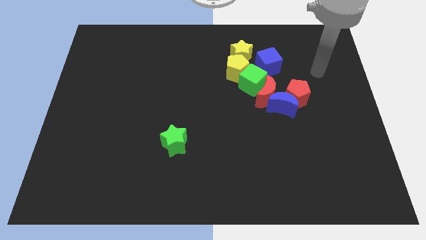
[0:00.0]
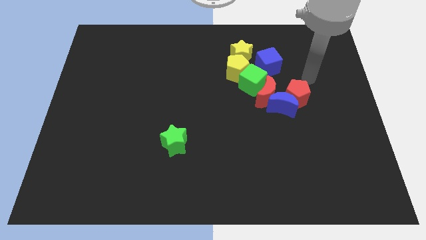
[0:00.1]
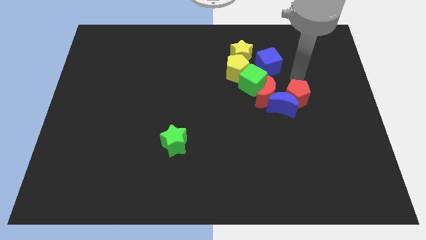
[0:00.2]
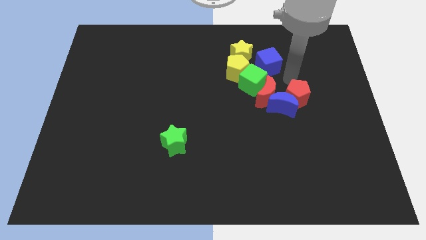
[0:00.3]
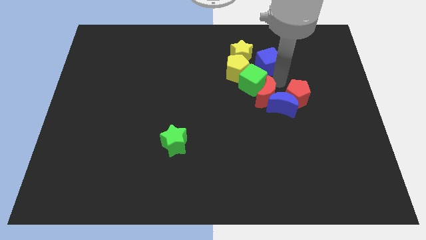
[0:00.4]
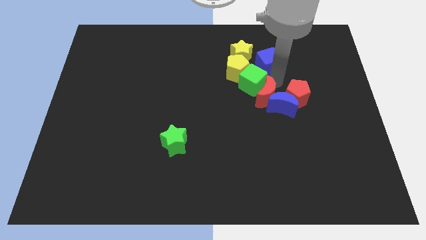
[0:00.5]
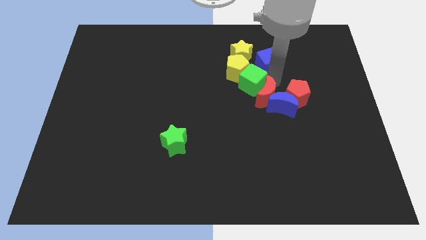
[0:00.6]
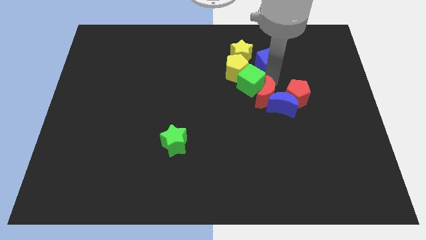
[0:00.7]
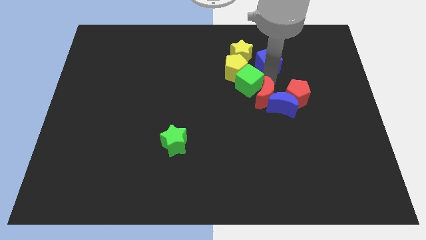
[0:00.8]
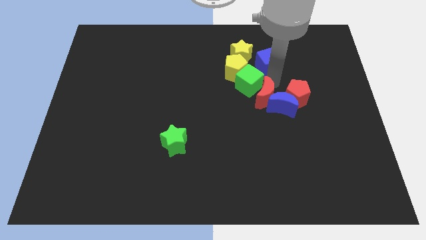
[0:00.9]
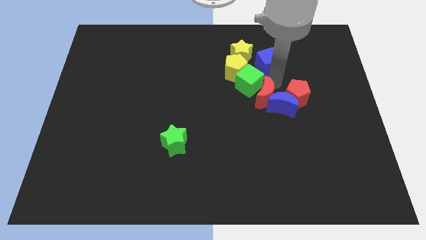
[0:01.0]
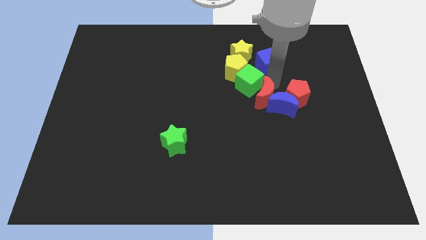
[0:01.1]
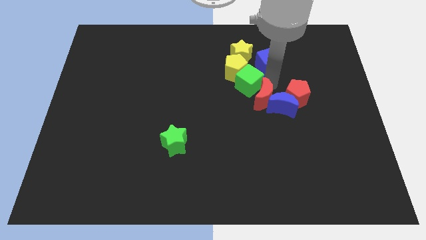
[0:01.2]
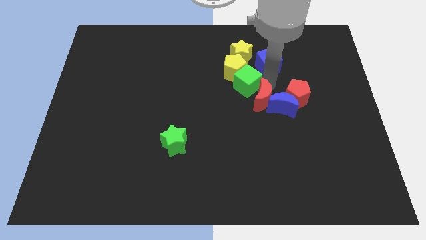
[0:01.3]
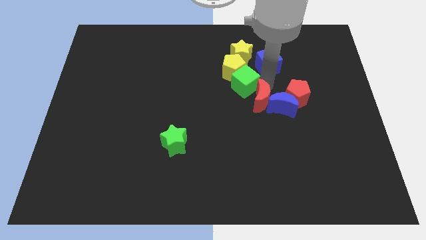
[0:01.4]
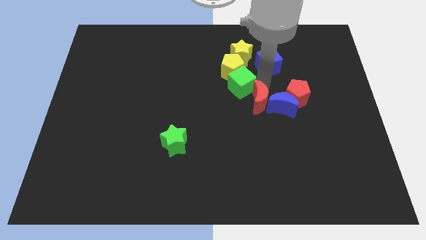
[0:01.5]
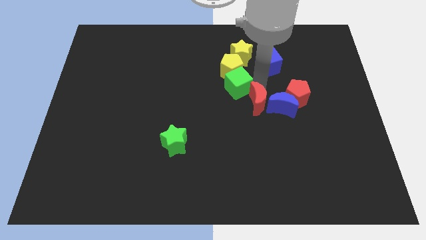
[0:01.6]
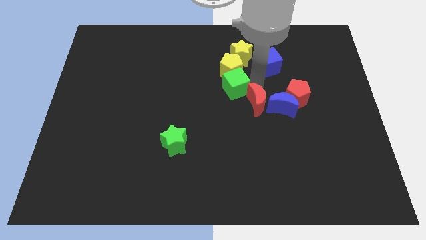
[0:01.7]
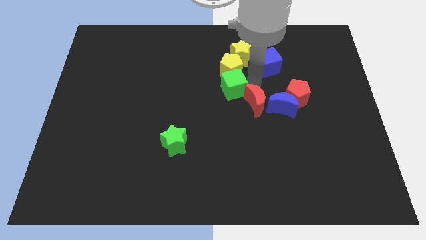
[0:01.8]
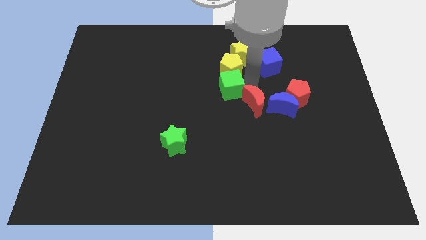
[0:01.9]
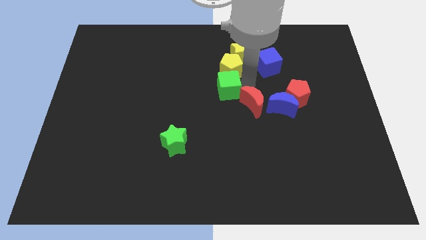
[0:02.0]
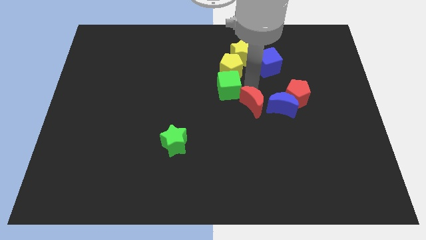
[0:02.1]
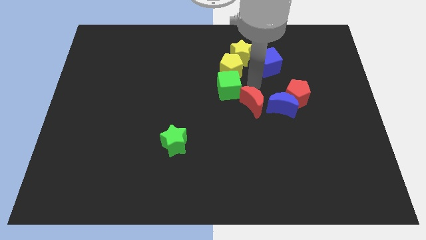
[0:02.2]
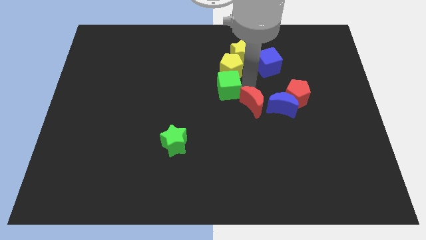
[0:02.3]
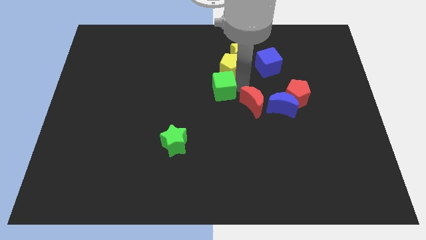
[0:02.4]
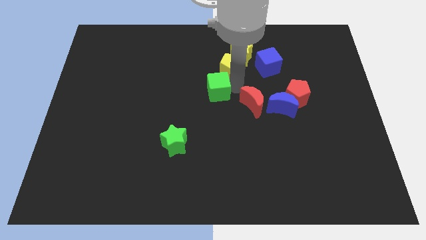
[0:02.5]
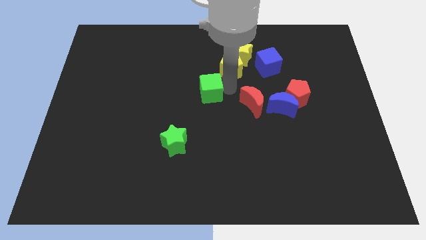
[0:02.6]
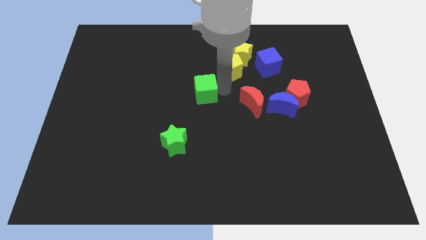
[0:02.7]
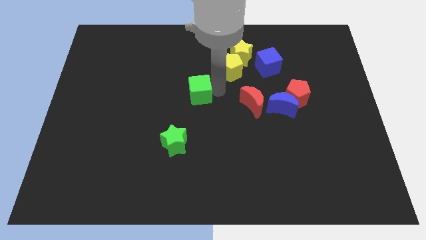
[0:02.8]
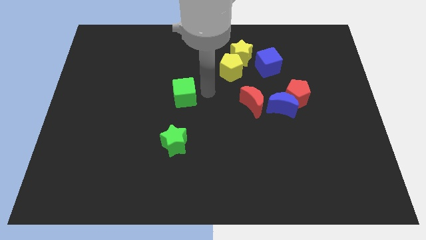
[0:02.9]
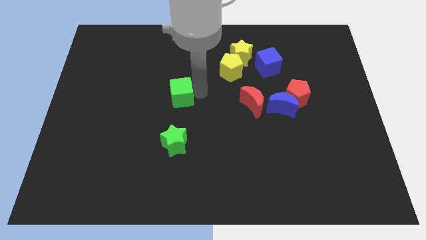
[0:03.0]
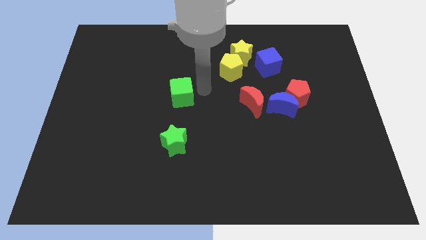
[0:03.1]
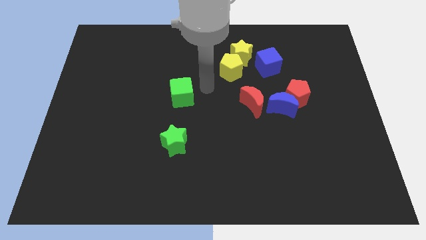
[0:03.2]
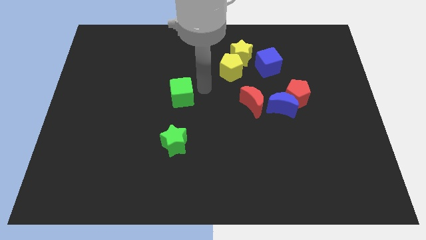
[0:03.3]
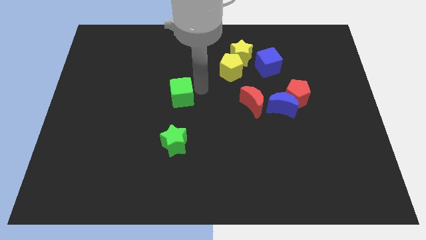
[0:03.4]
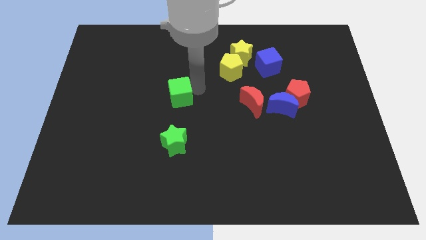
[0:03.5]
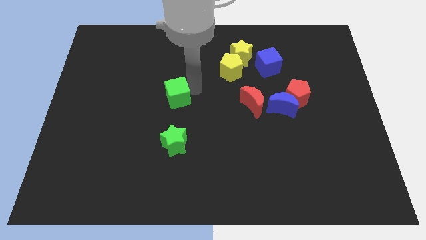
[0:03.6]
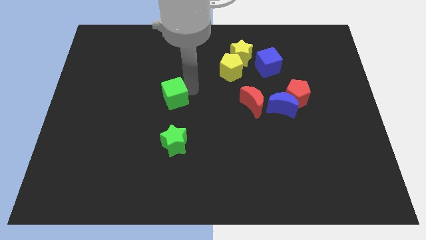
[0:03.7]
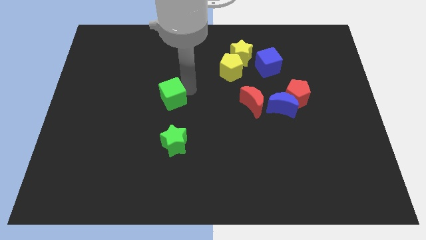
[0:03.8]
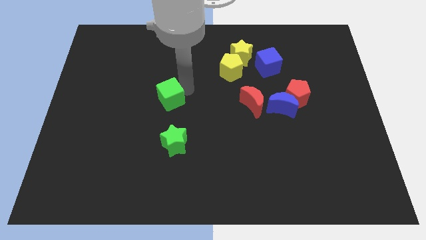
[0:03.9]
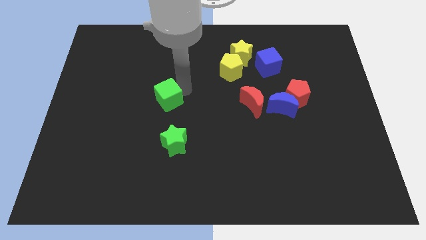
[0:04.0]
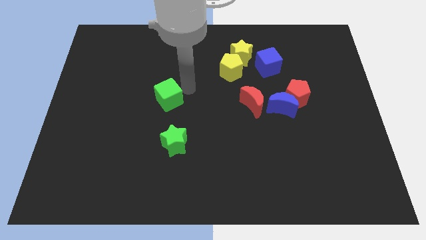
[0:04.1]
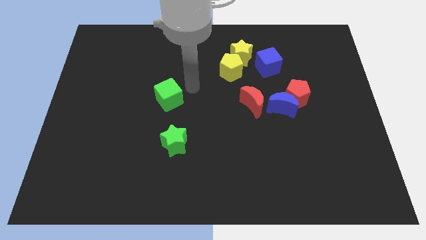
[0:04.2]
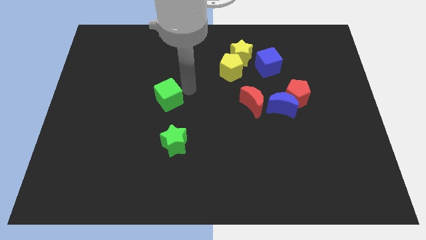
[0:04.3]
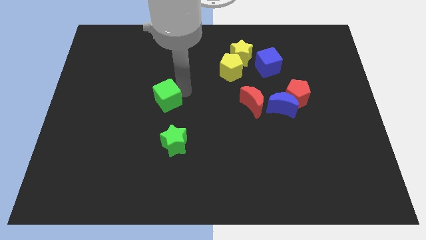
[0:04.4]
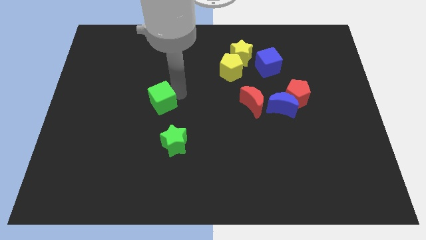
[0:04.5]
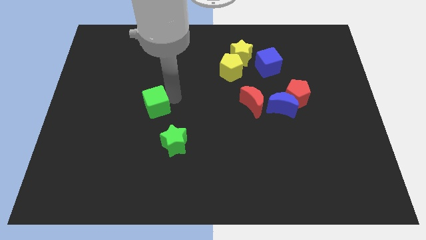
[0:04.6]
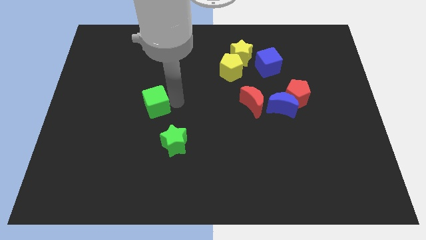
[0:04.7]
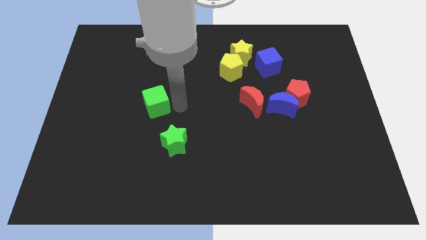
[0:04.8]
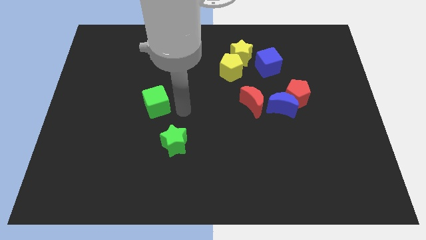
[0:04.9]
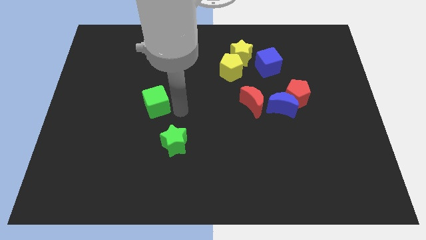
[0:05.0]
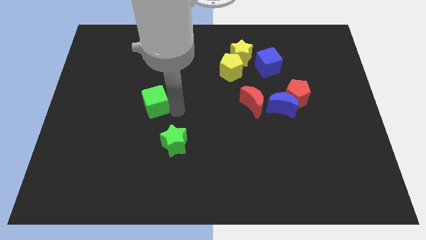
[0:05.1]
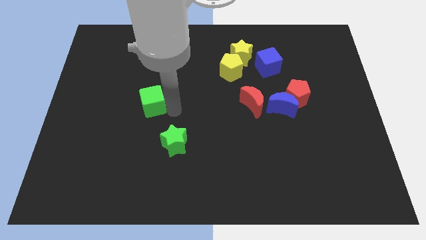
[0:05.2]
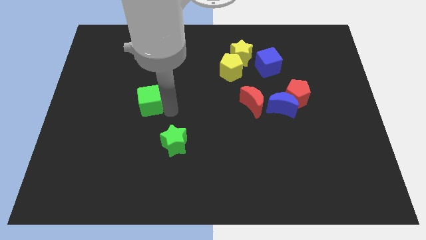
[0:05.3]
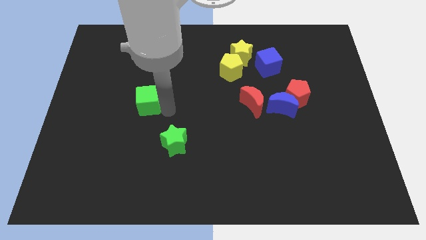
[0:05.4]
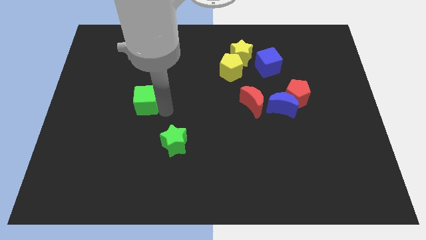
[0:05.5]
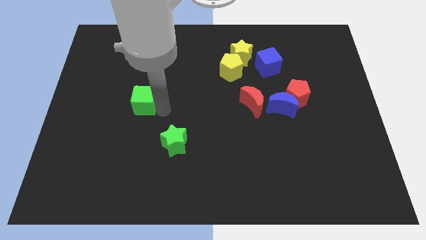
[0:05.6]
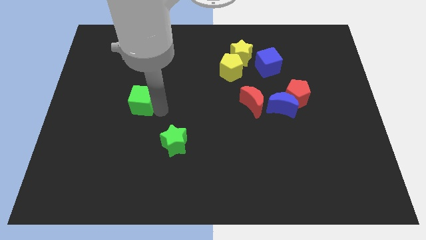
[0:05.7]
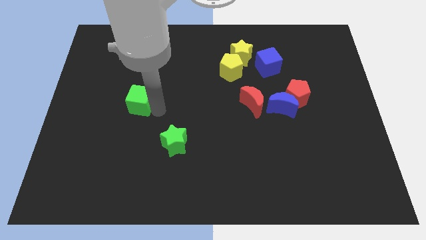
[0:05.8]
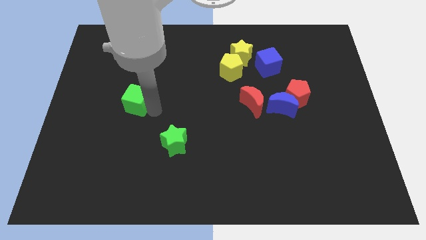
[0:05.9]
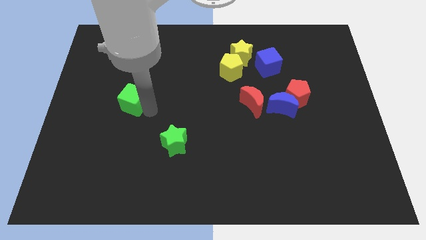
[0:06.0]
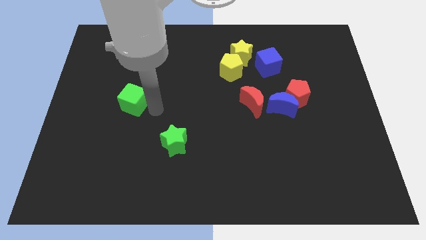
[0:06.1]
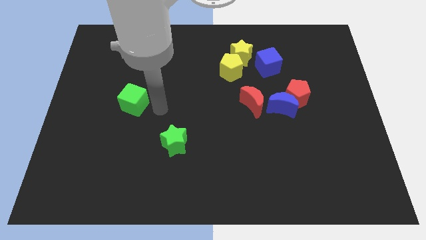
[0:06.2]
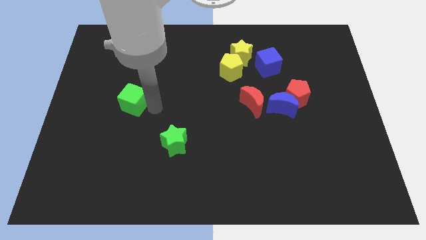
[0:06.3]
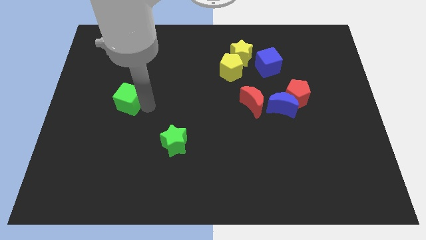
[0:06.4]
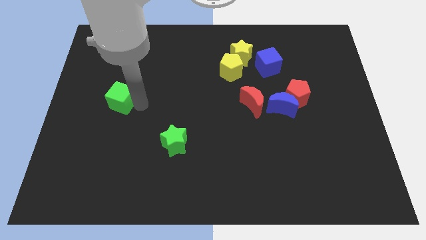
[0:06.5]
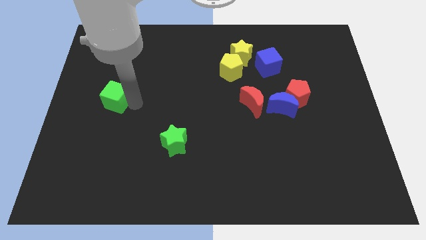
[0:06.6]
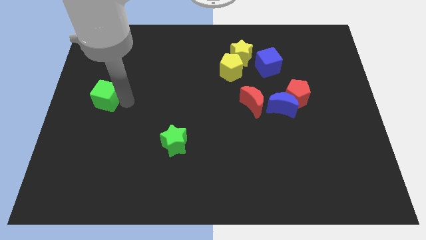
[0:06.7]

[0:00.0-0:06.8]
put the green cube to the center left
